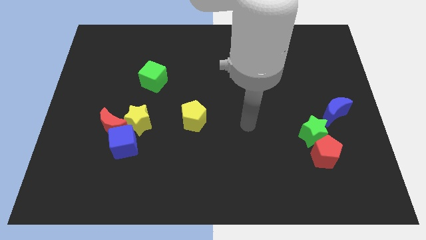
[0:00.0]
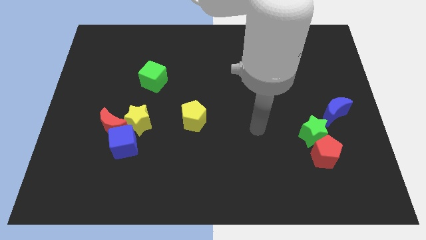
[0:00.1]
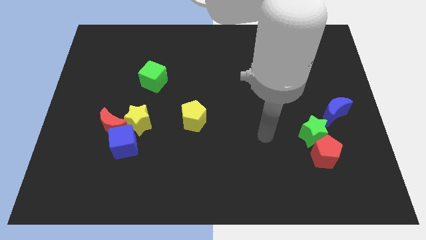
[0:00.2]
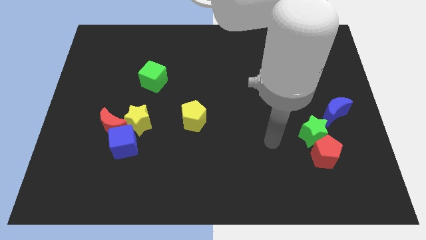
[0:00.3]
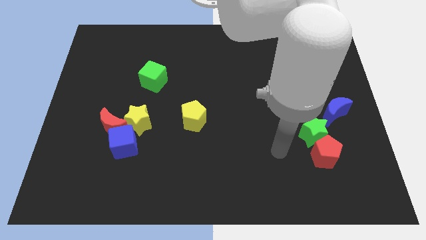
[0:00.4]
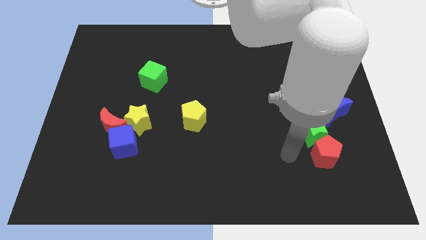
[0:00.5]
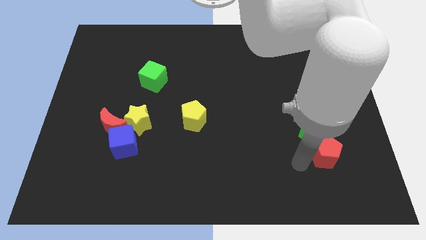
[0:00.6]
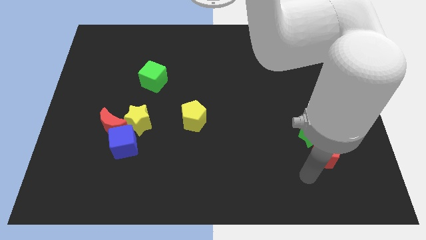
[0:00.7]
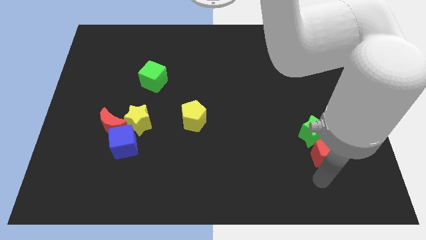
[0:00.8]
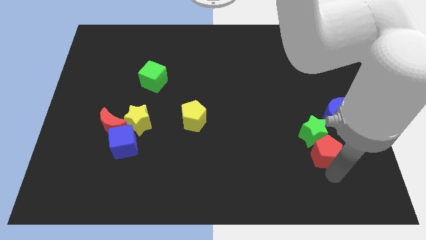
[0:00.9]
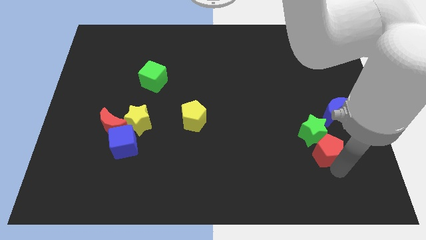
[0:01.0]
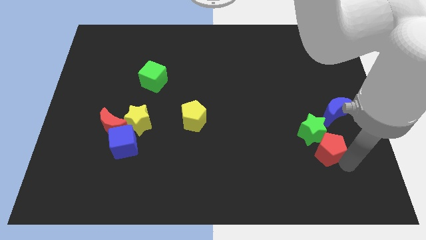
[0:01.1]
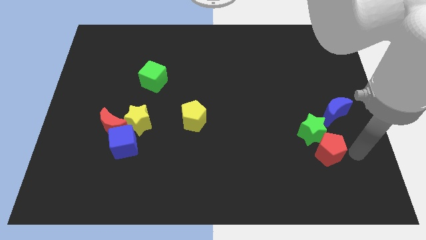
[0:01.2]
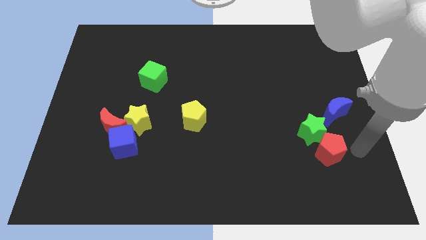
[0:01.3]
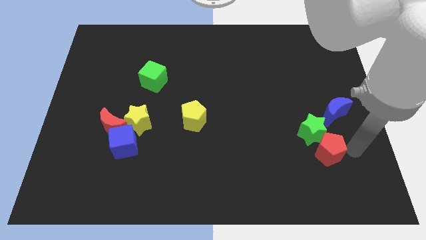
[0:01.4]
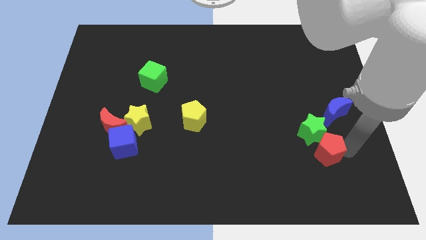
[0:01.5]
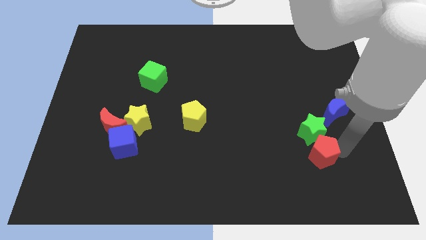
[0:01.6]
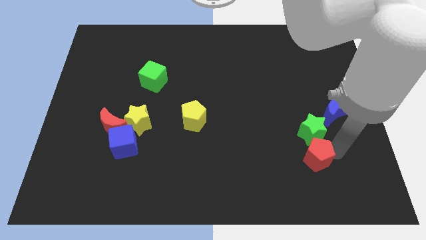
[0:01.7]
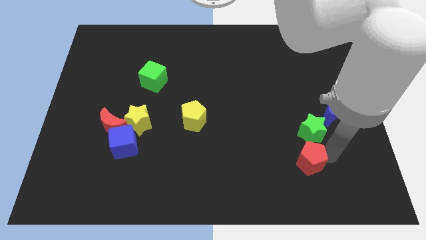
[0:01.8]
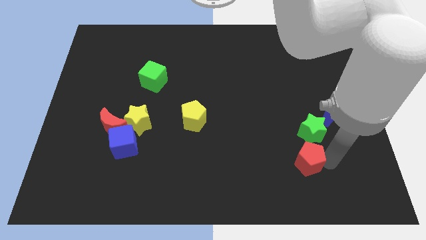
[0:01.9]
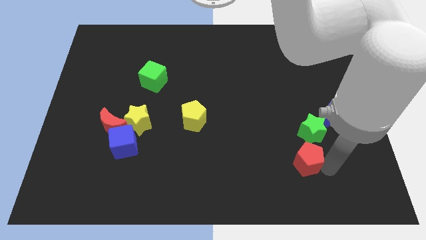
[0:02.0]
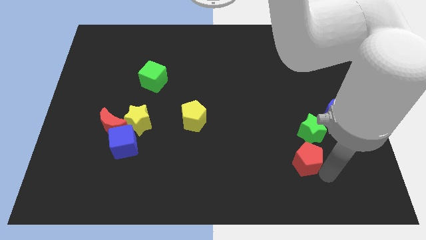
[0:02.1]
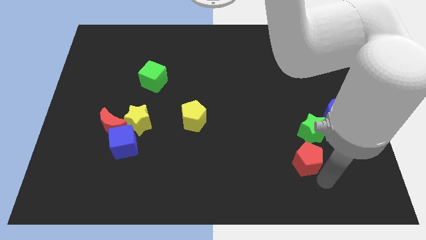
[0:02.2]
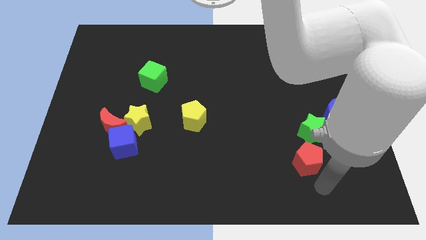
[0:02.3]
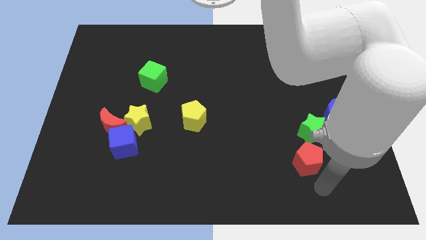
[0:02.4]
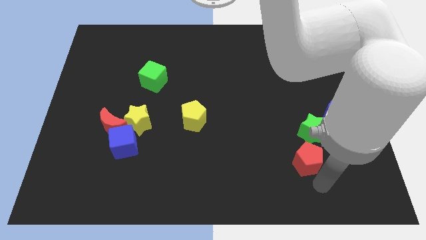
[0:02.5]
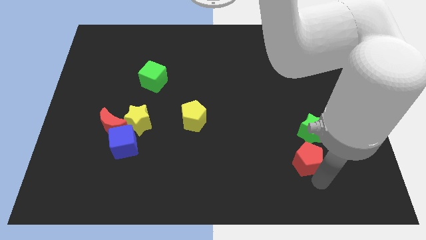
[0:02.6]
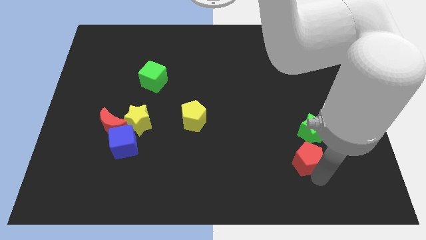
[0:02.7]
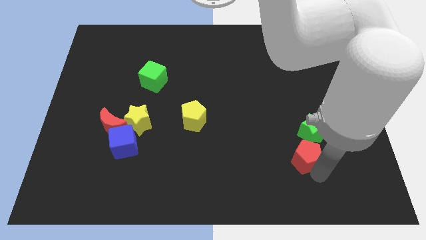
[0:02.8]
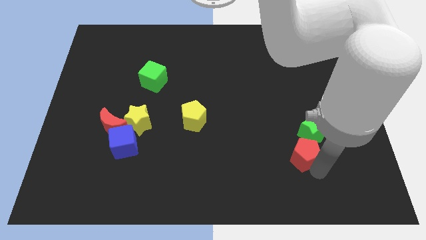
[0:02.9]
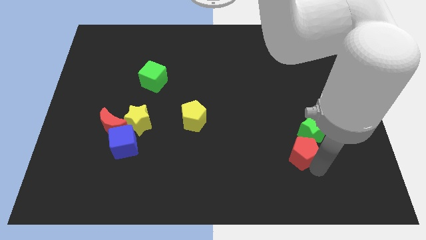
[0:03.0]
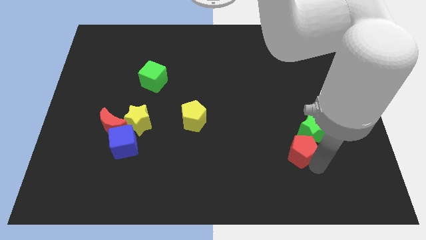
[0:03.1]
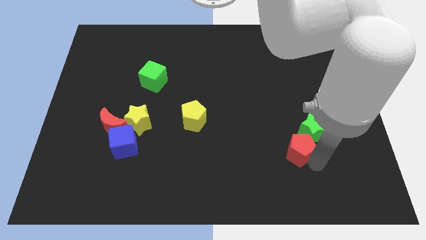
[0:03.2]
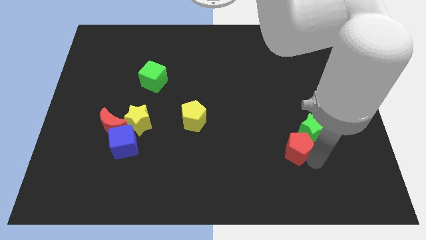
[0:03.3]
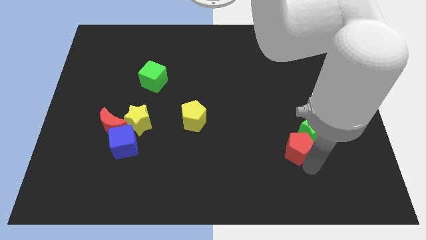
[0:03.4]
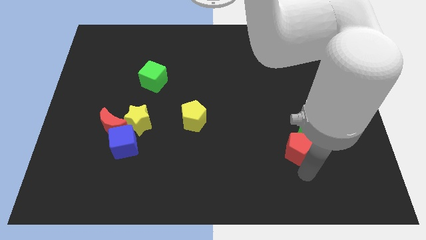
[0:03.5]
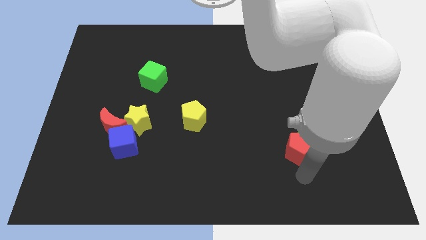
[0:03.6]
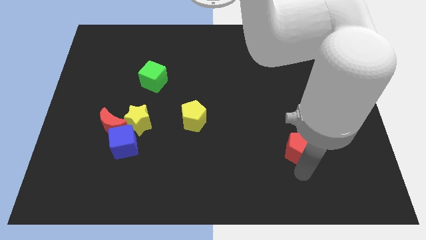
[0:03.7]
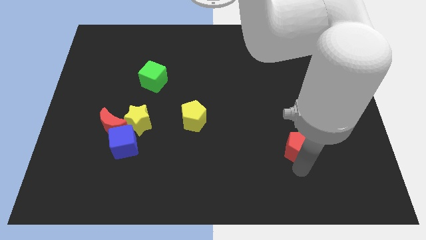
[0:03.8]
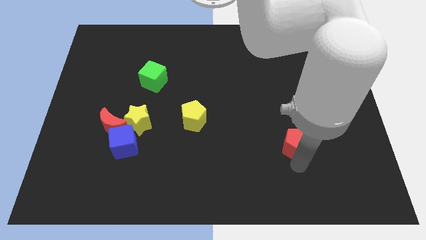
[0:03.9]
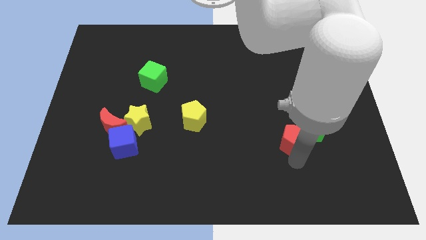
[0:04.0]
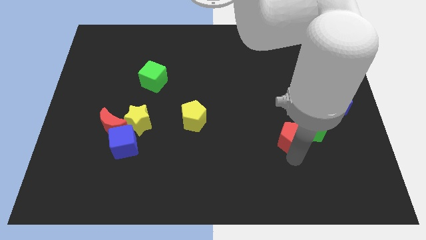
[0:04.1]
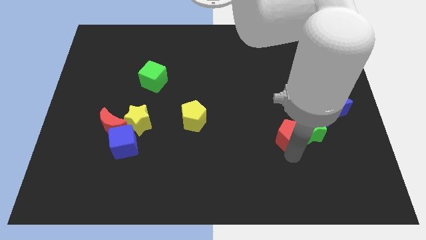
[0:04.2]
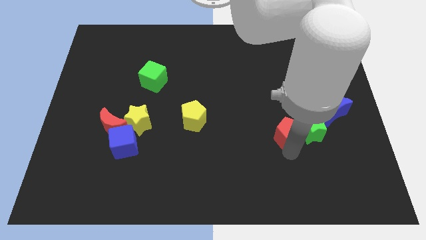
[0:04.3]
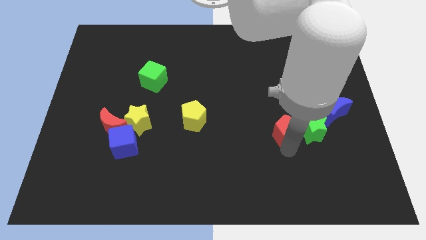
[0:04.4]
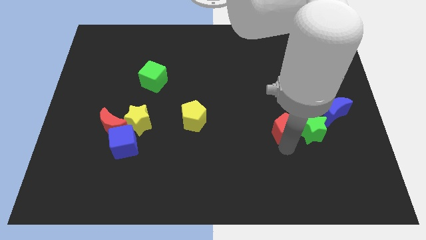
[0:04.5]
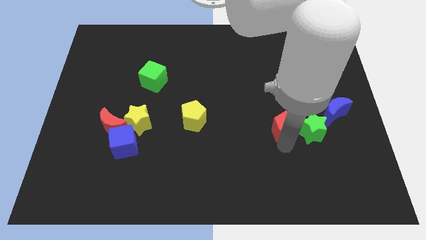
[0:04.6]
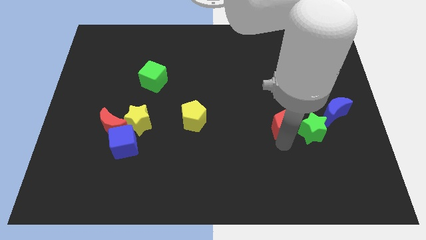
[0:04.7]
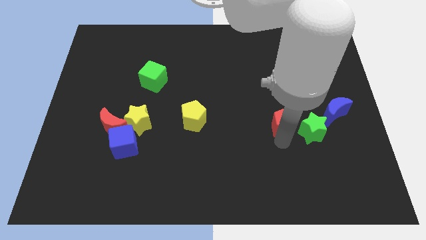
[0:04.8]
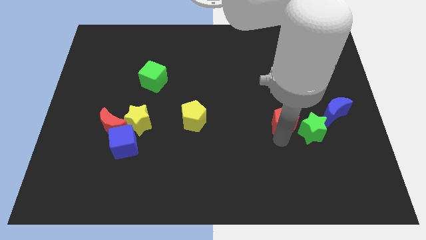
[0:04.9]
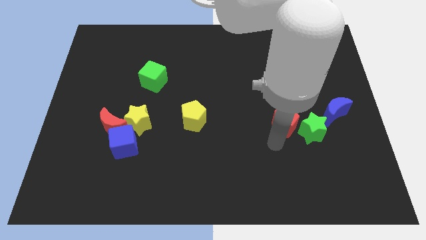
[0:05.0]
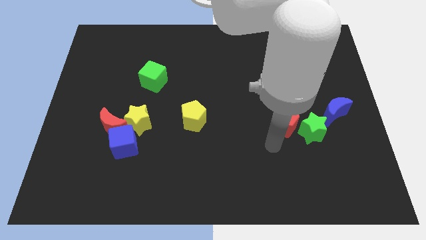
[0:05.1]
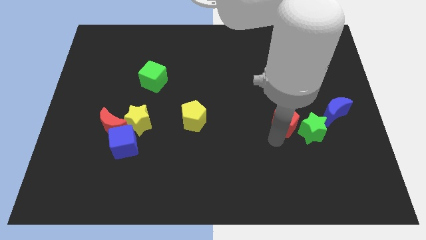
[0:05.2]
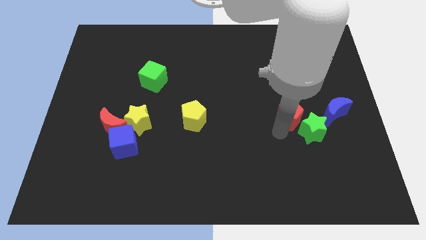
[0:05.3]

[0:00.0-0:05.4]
move the red pentagon upwards somewhat

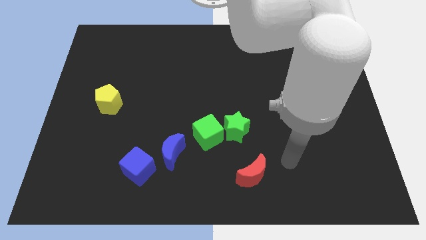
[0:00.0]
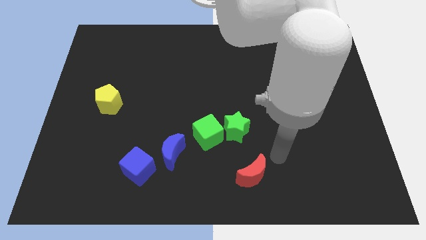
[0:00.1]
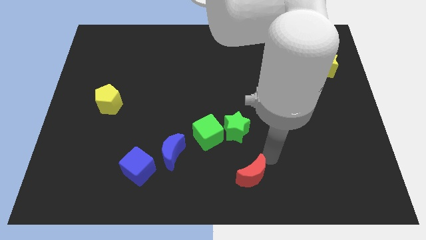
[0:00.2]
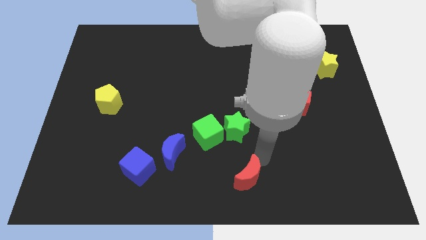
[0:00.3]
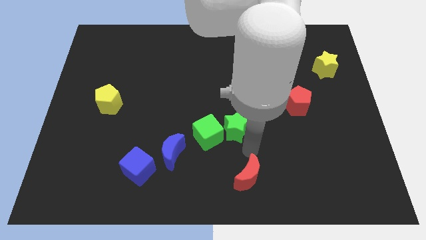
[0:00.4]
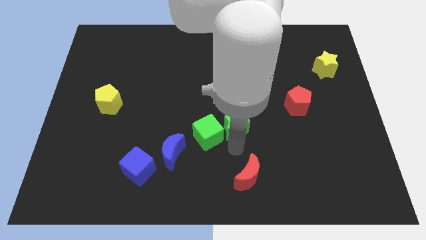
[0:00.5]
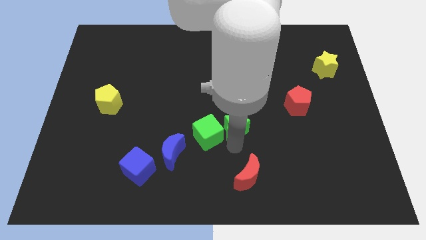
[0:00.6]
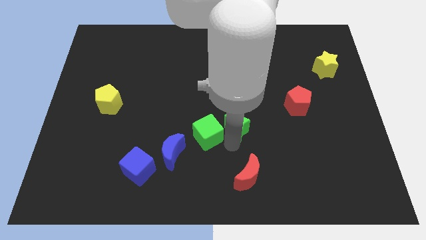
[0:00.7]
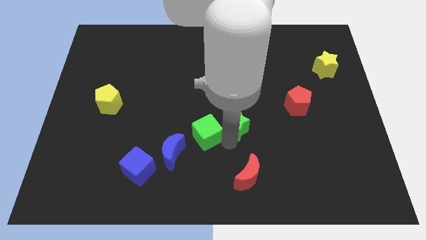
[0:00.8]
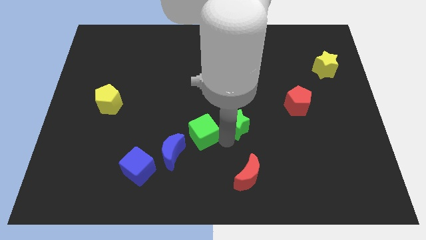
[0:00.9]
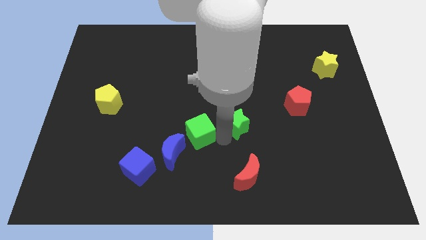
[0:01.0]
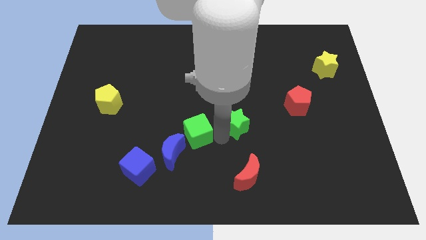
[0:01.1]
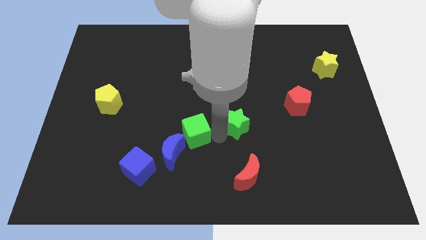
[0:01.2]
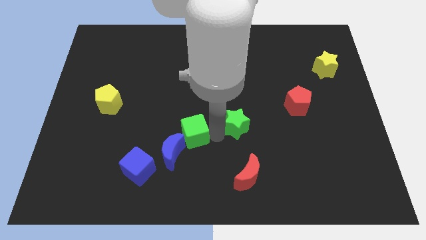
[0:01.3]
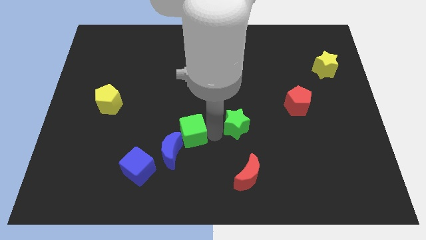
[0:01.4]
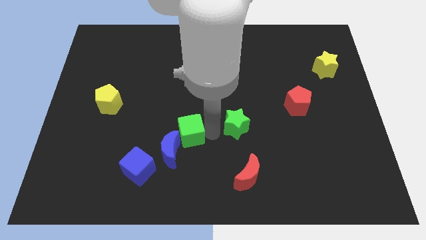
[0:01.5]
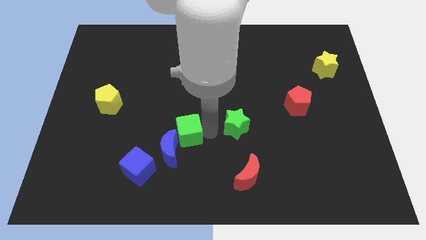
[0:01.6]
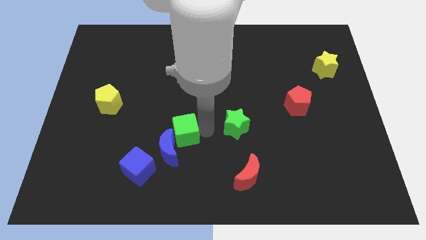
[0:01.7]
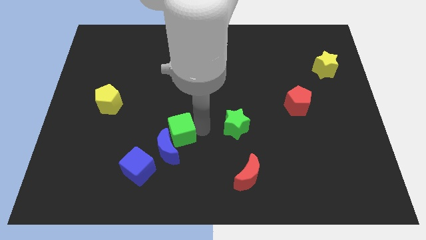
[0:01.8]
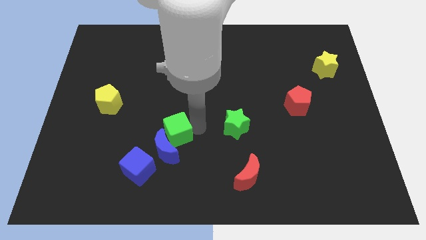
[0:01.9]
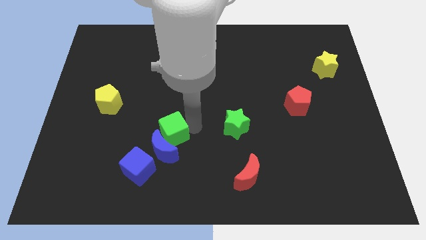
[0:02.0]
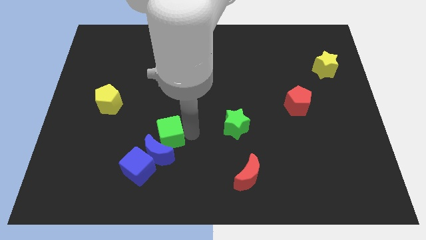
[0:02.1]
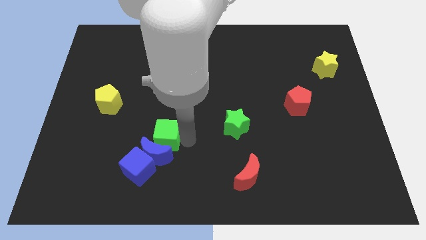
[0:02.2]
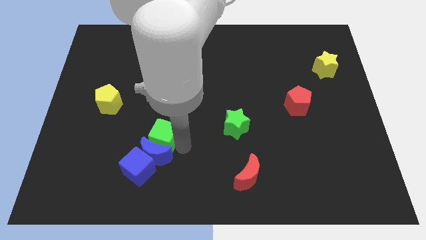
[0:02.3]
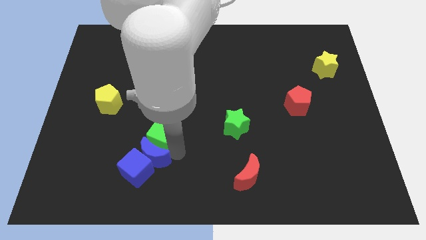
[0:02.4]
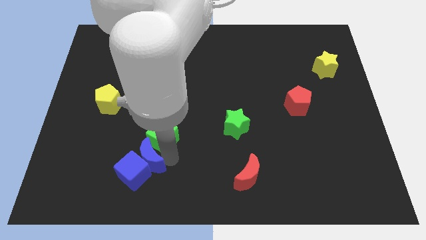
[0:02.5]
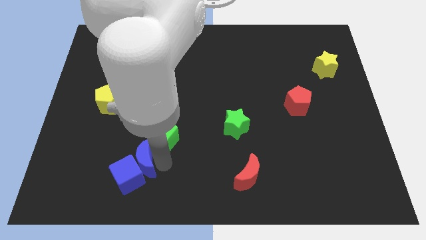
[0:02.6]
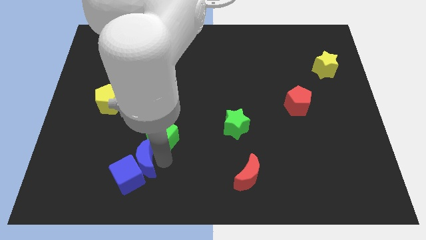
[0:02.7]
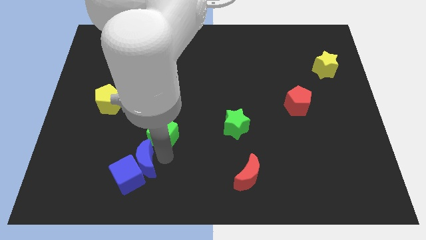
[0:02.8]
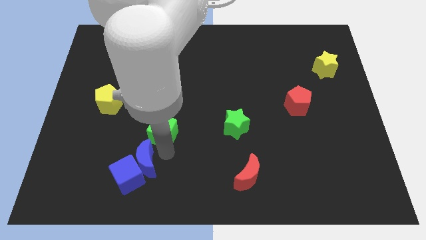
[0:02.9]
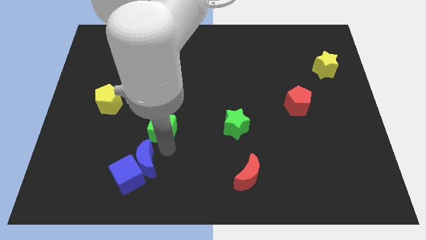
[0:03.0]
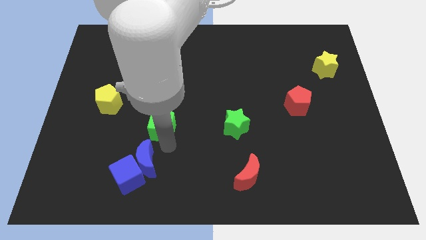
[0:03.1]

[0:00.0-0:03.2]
slide the green cube a little up and left diagonally
